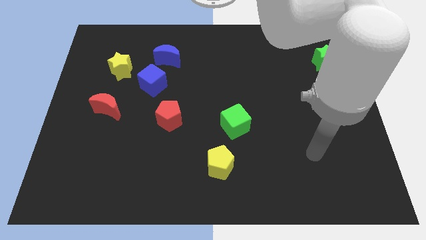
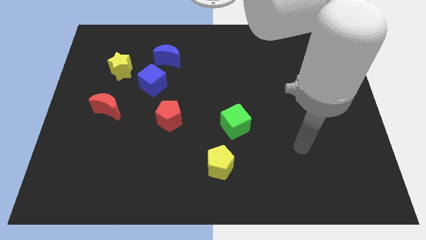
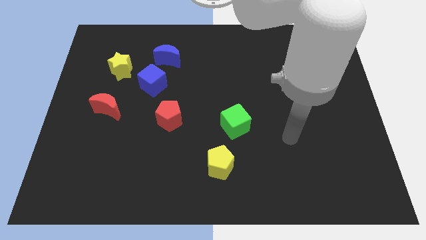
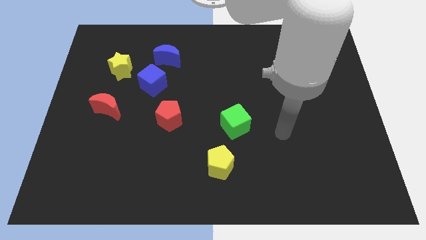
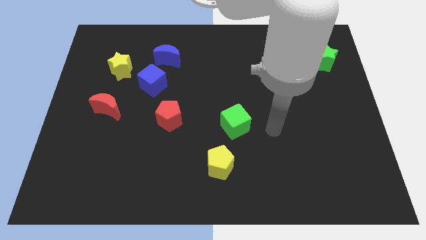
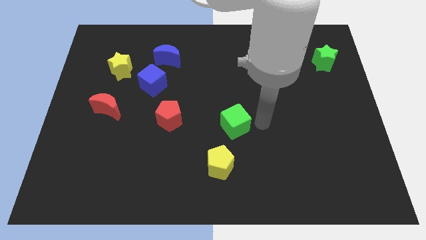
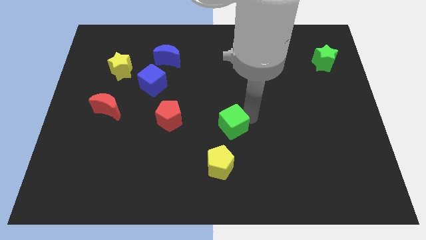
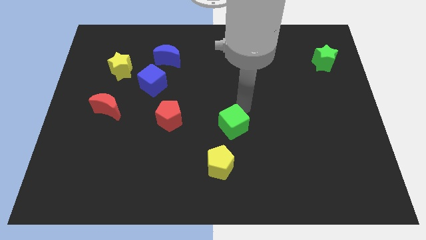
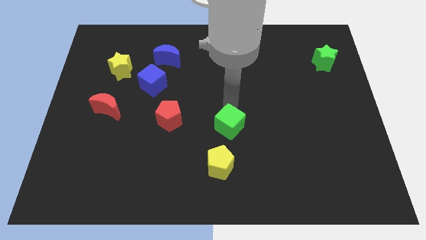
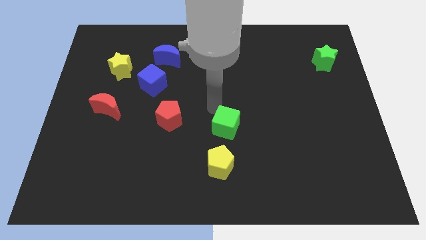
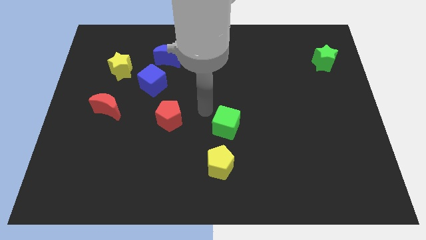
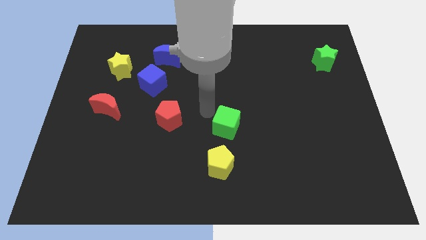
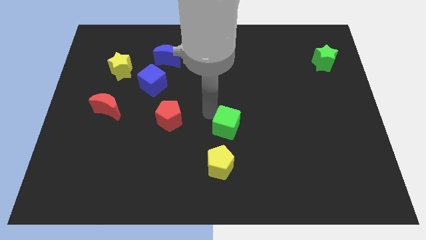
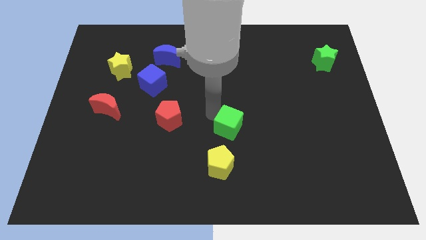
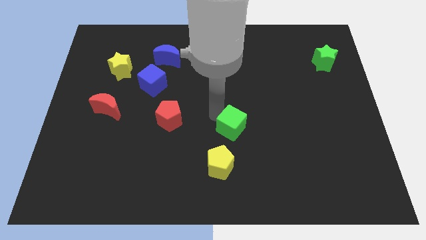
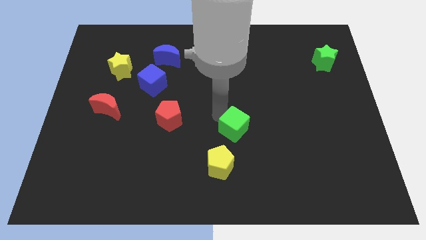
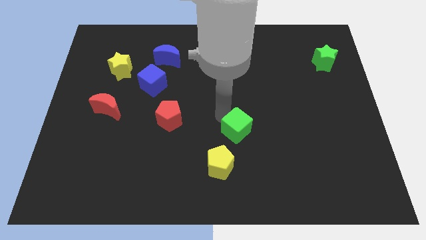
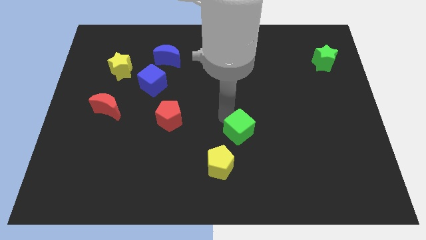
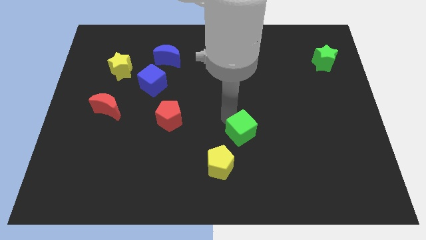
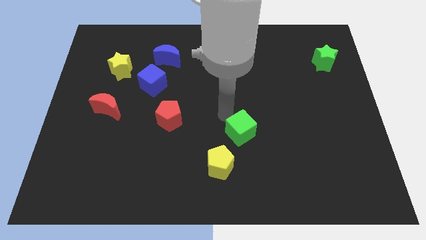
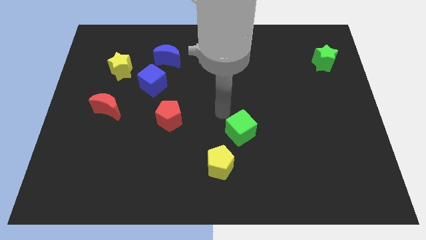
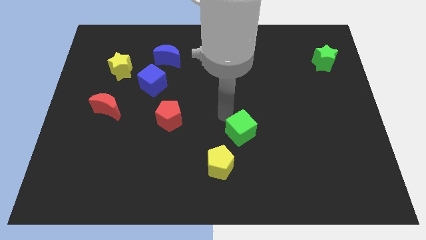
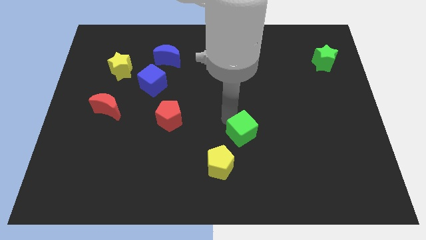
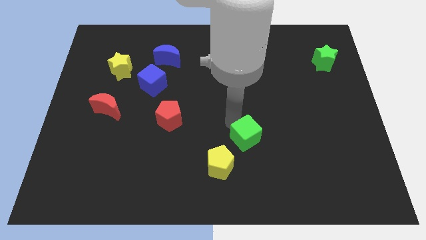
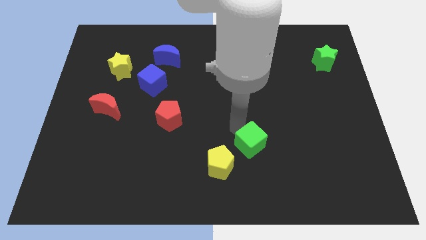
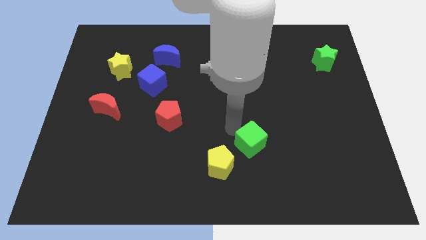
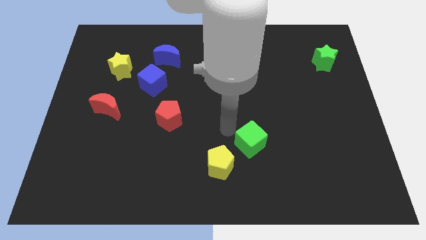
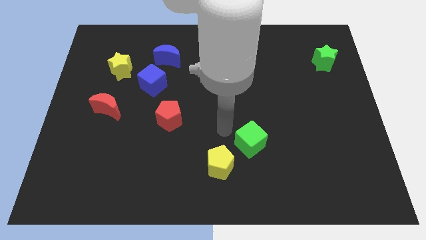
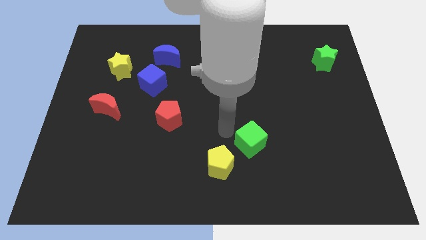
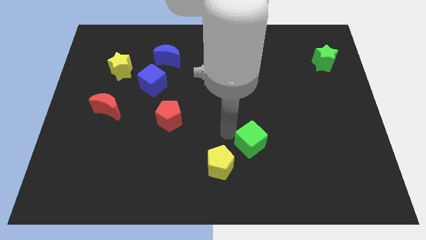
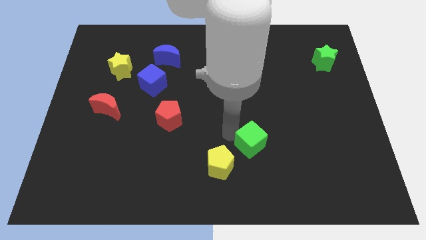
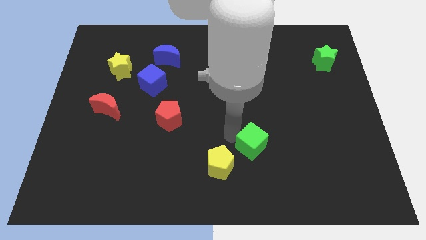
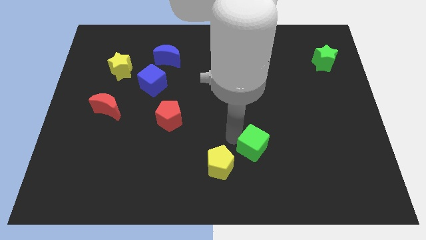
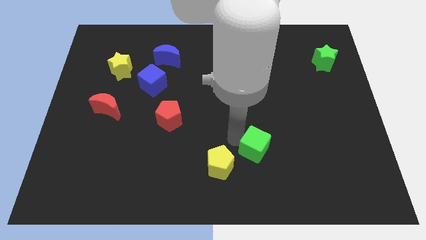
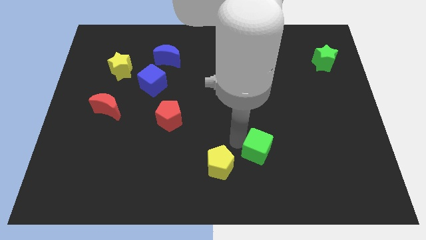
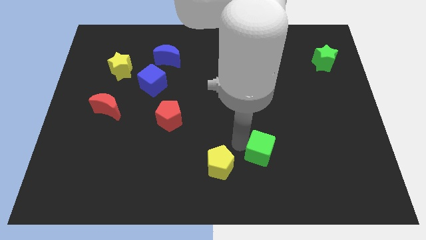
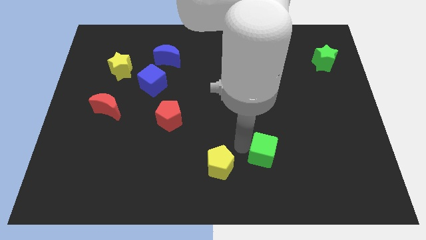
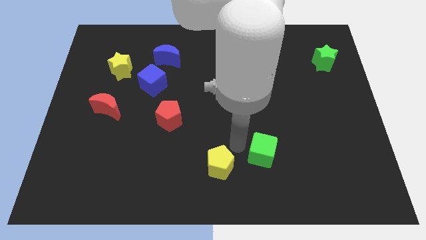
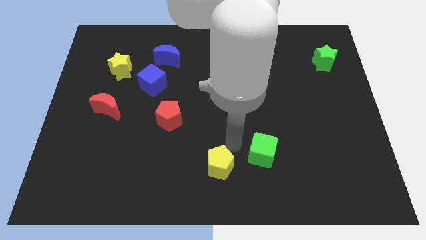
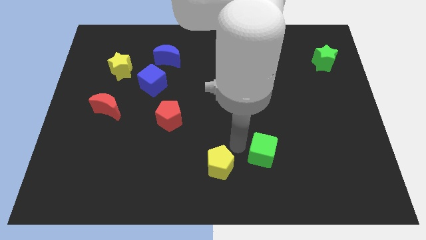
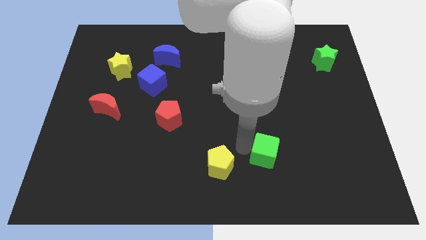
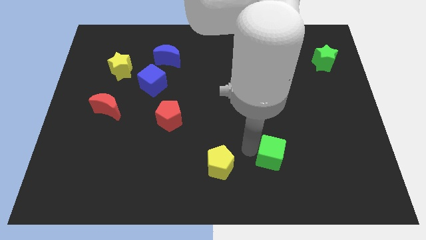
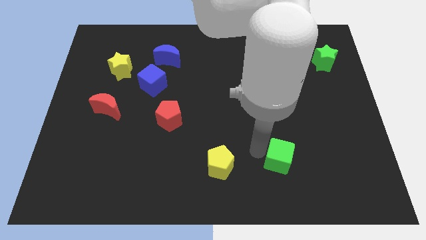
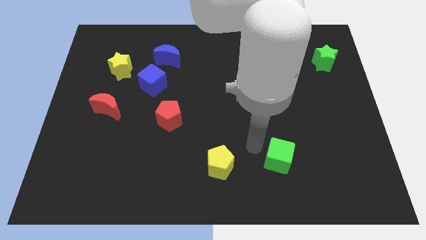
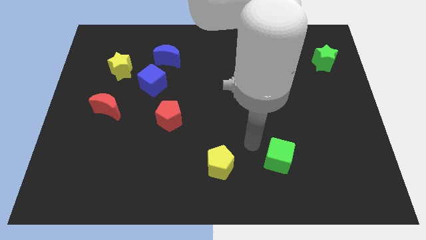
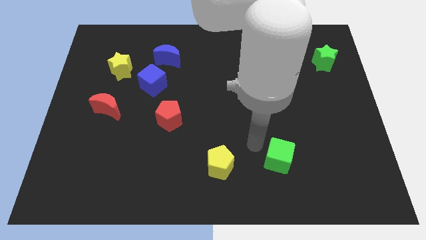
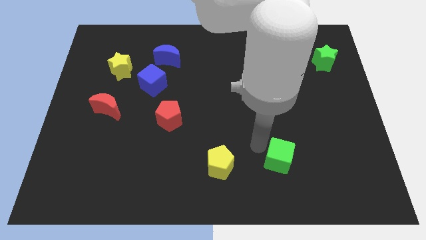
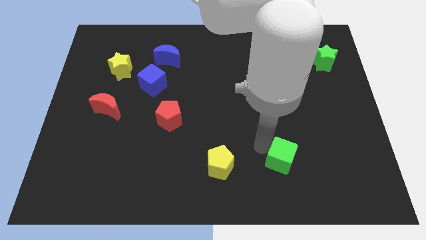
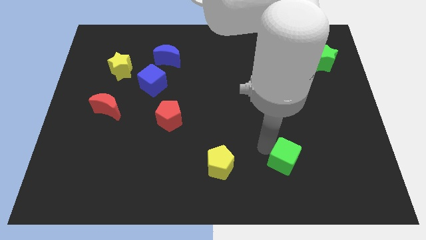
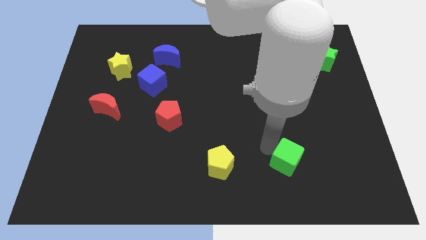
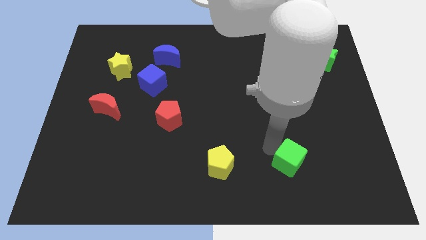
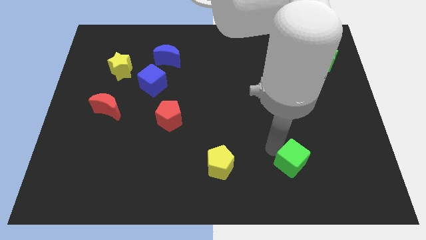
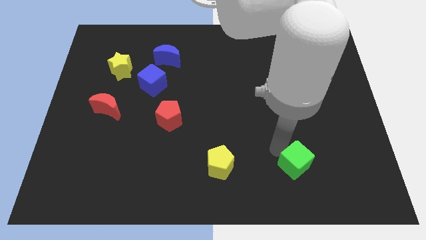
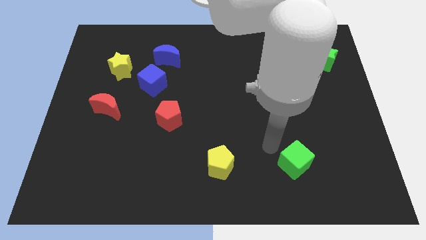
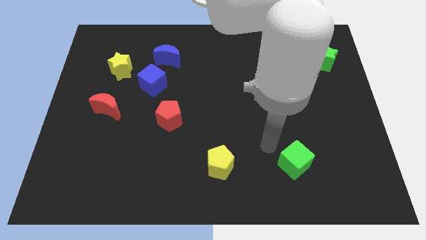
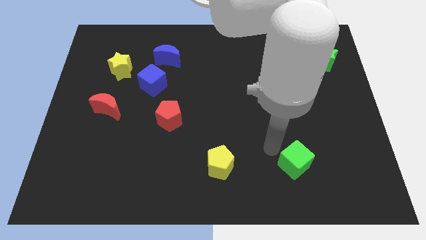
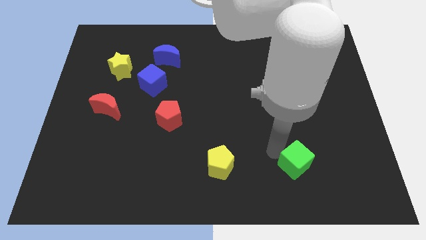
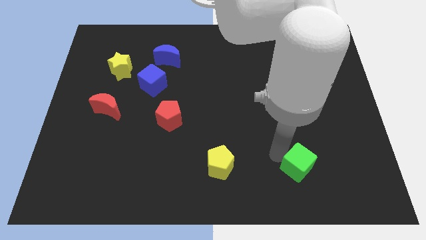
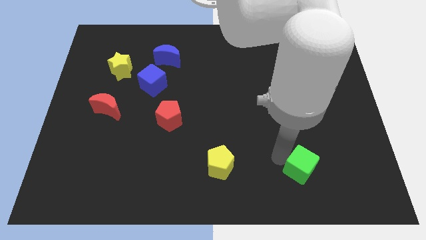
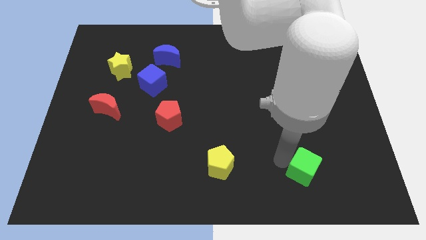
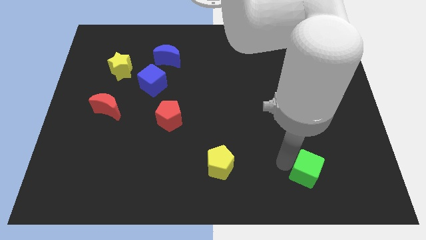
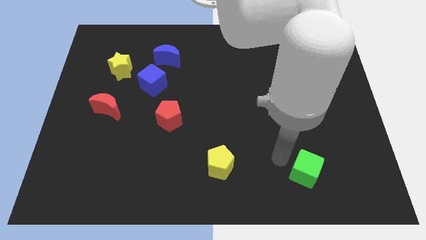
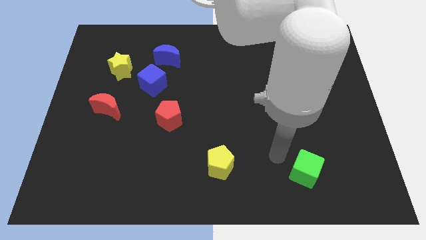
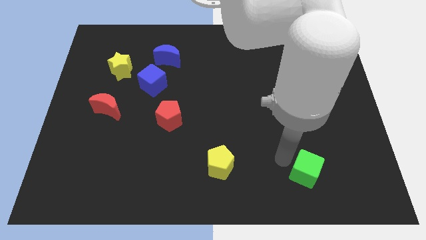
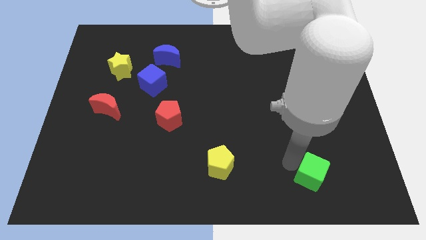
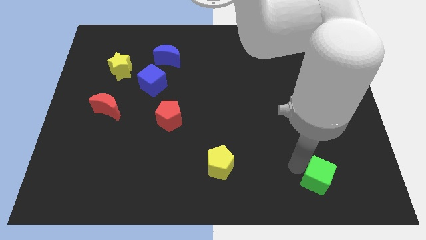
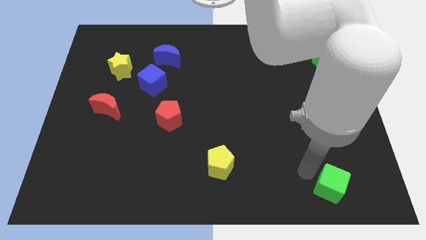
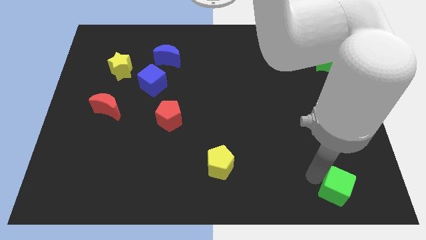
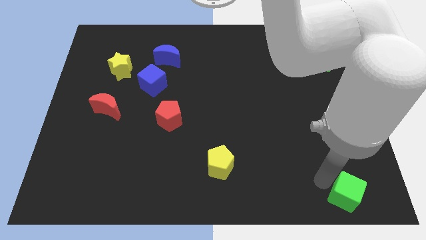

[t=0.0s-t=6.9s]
slide the green cube to the bottom right

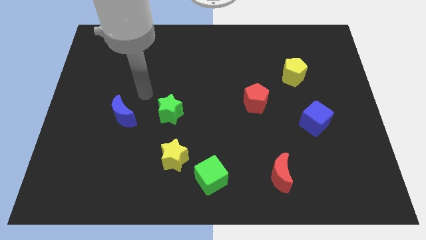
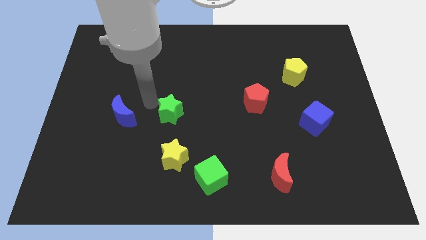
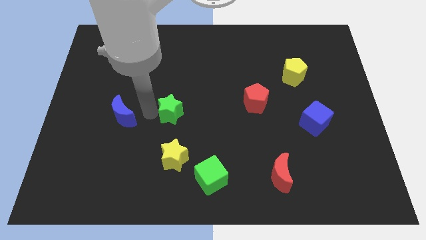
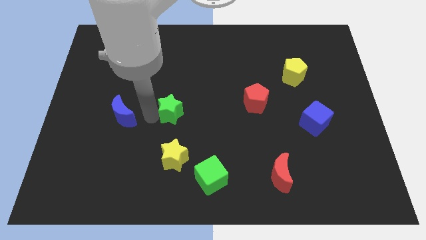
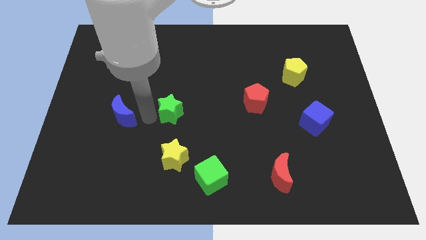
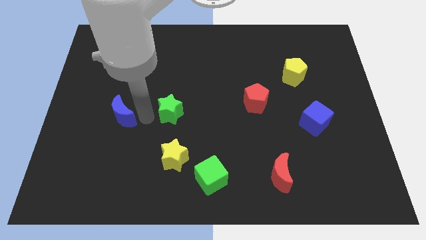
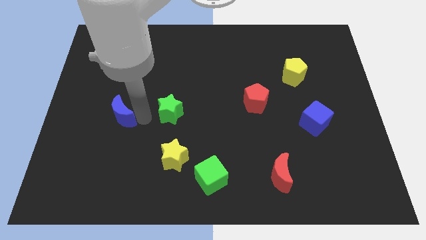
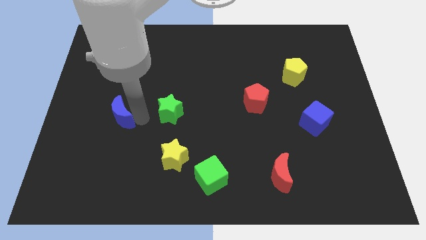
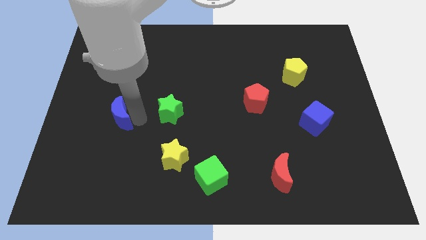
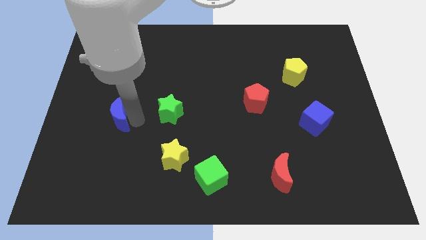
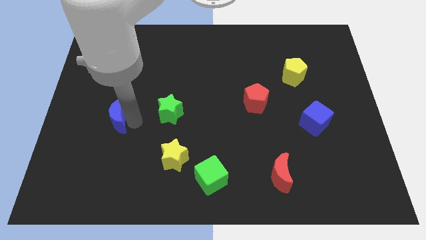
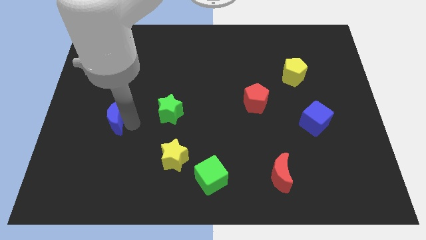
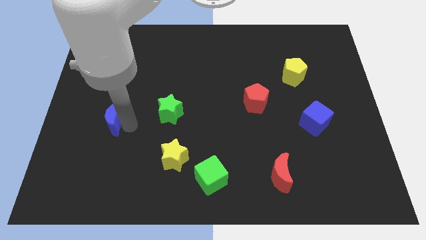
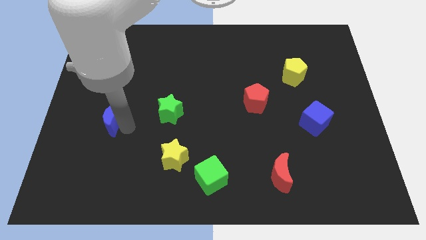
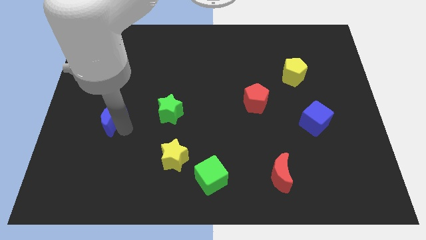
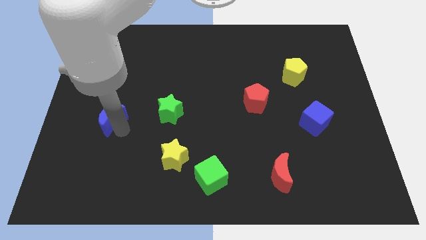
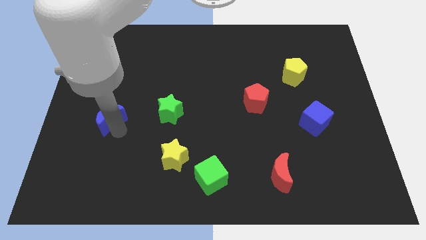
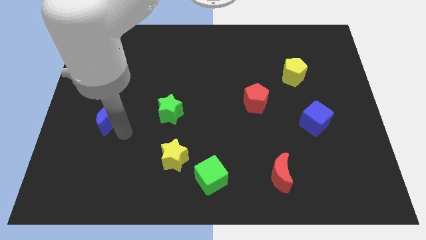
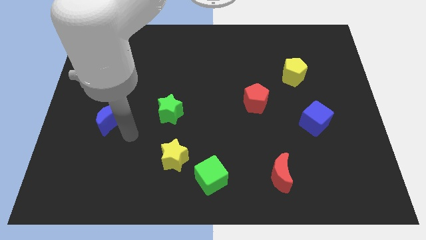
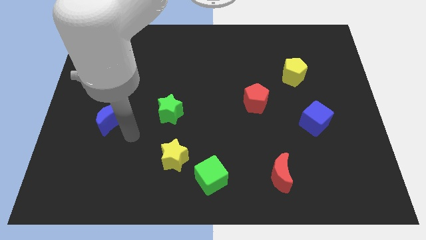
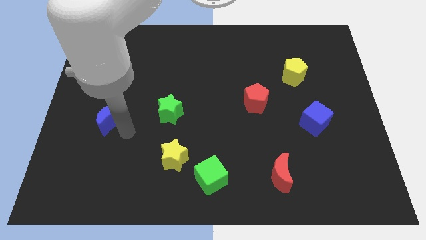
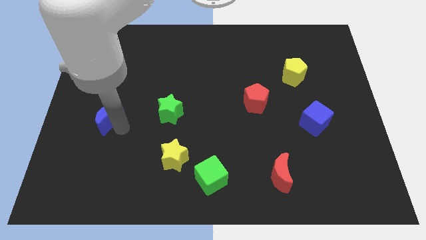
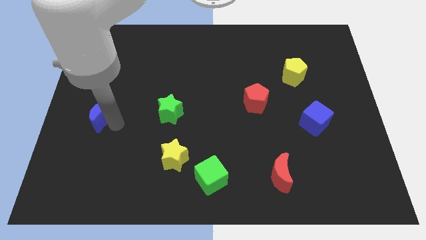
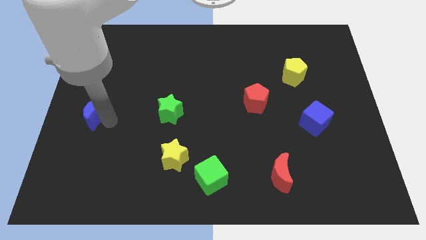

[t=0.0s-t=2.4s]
push the blue moon to the center left
